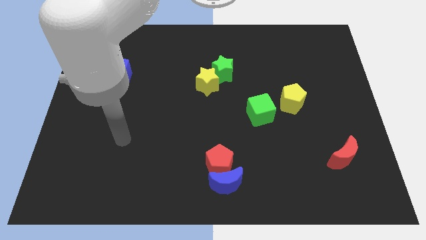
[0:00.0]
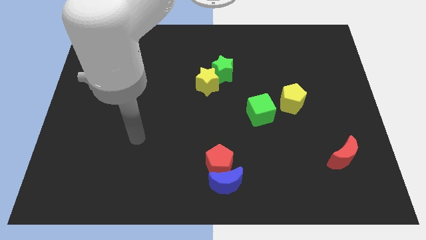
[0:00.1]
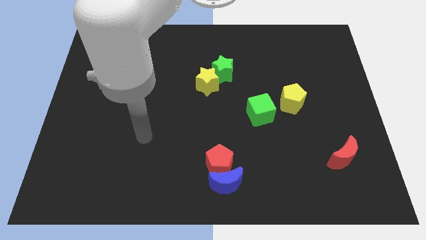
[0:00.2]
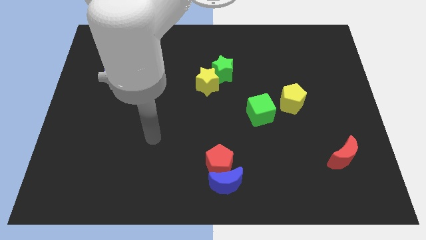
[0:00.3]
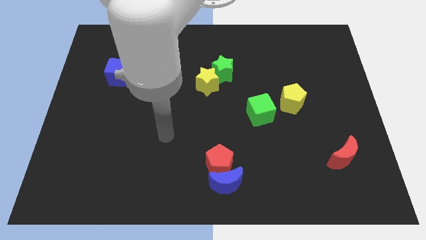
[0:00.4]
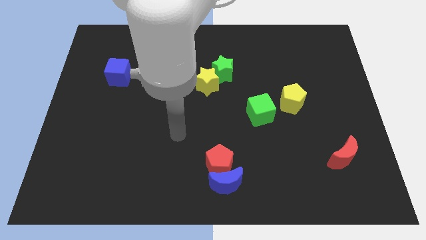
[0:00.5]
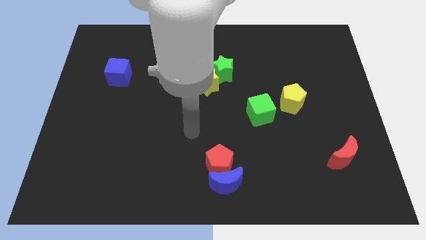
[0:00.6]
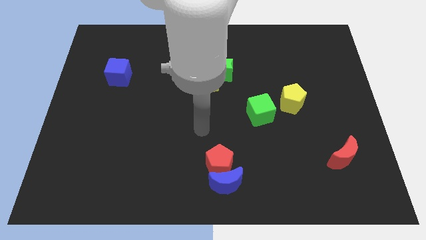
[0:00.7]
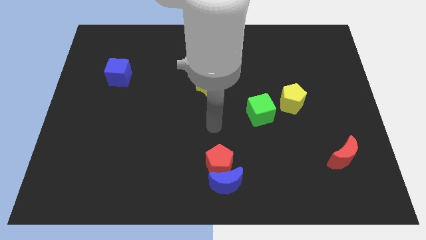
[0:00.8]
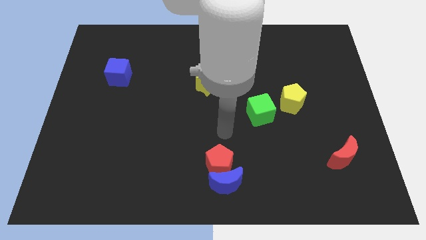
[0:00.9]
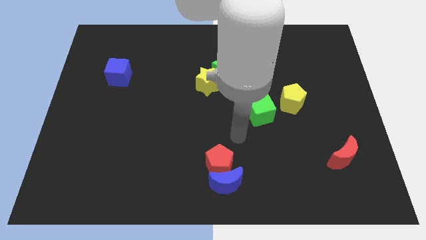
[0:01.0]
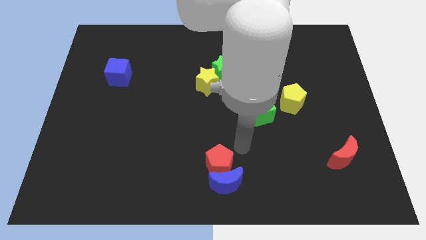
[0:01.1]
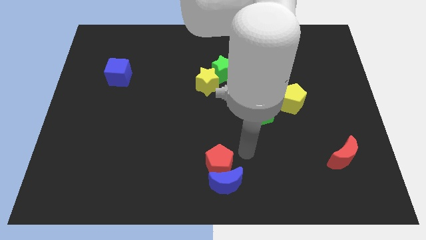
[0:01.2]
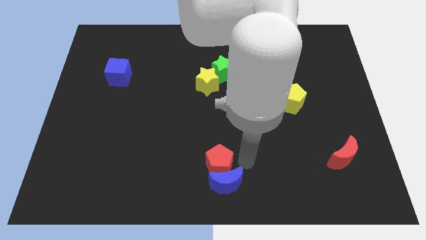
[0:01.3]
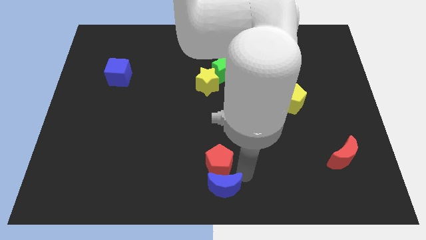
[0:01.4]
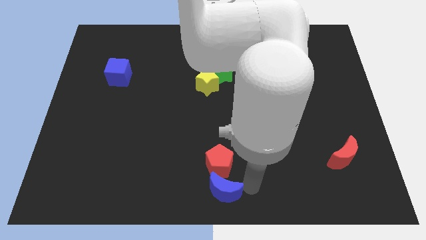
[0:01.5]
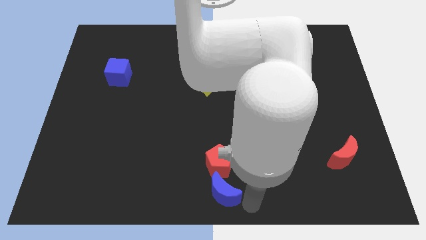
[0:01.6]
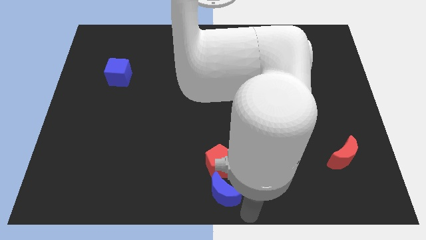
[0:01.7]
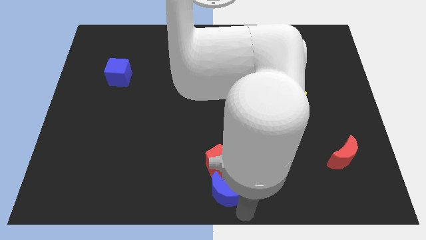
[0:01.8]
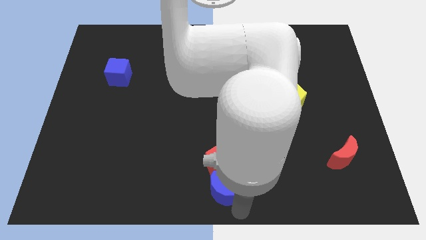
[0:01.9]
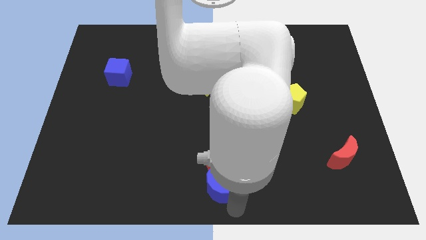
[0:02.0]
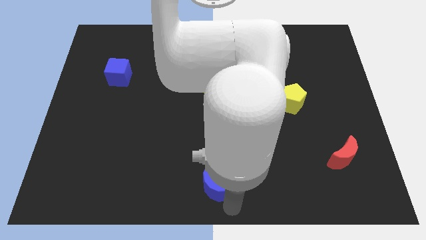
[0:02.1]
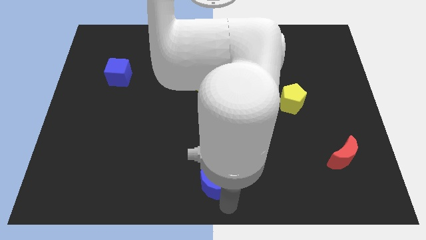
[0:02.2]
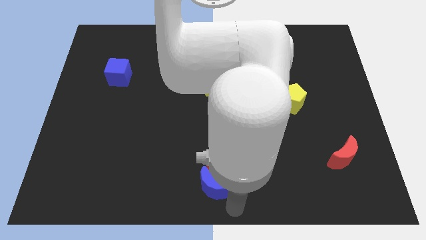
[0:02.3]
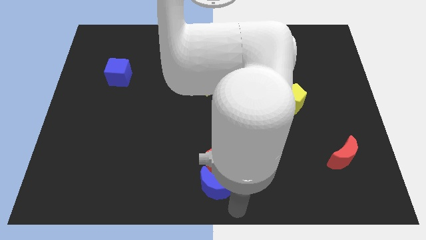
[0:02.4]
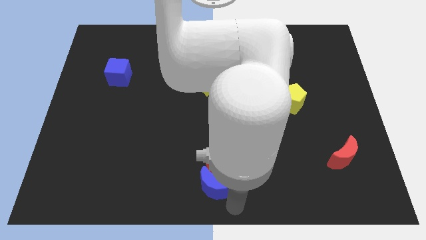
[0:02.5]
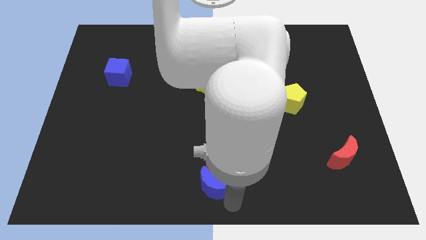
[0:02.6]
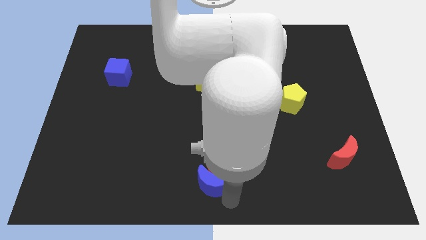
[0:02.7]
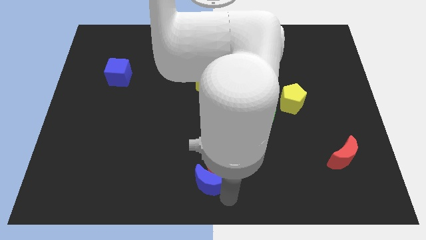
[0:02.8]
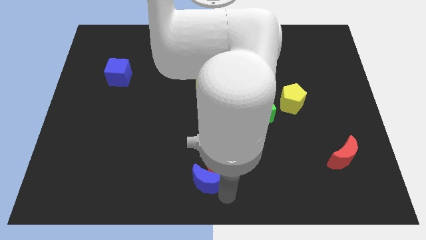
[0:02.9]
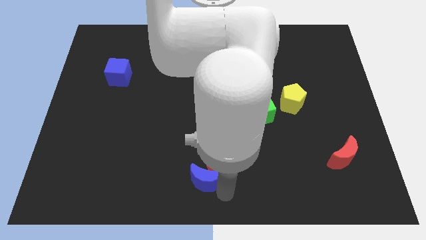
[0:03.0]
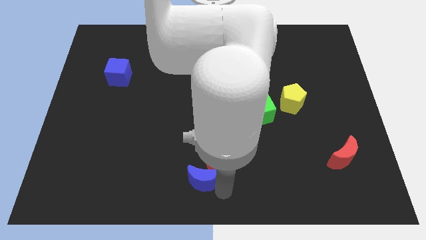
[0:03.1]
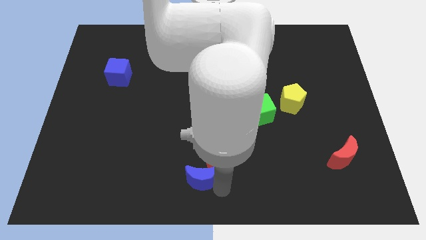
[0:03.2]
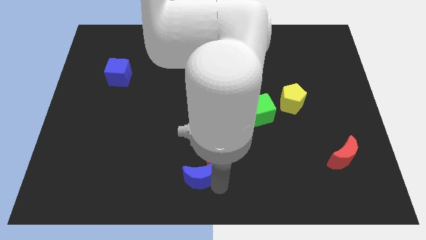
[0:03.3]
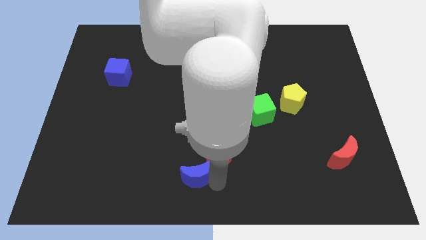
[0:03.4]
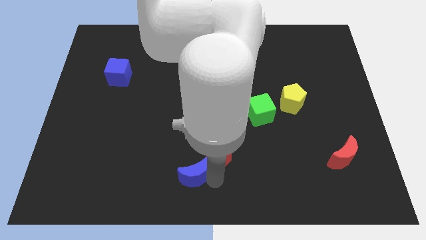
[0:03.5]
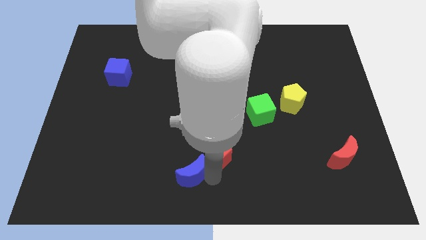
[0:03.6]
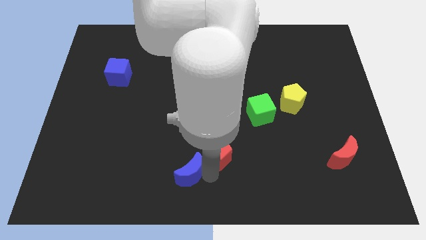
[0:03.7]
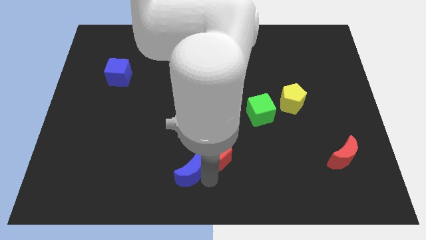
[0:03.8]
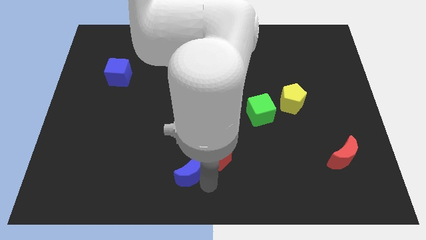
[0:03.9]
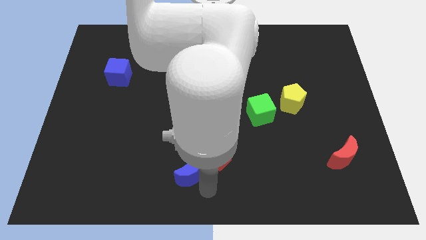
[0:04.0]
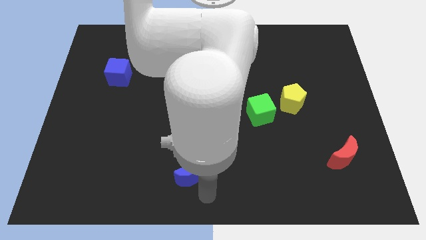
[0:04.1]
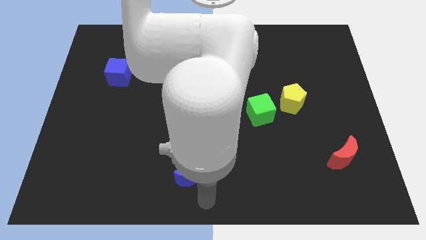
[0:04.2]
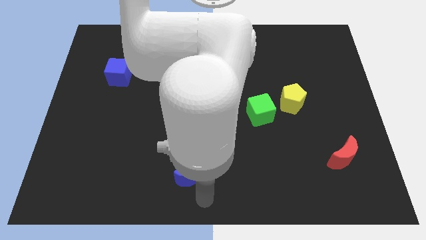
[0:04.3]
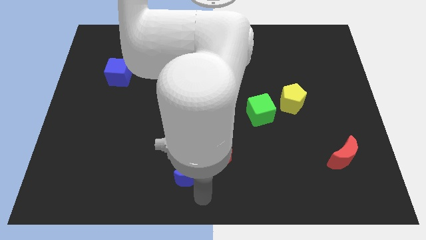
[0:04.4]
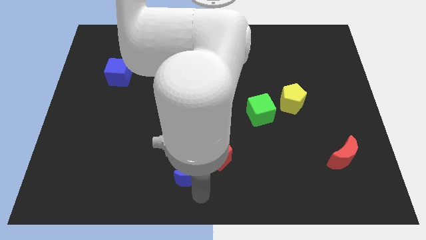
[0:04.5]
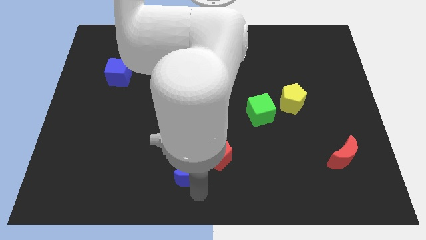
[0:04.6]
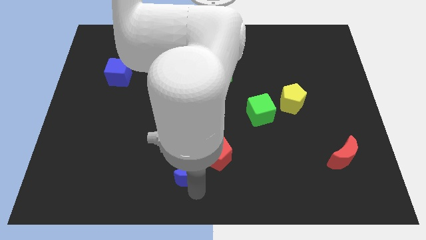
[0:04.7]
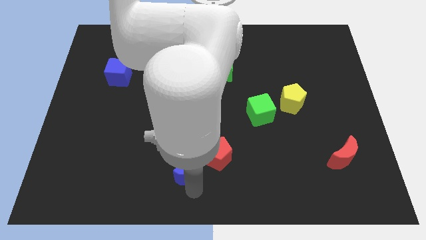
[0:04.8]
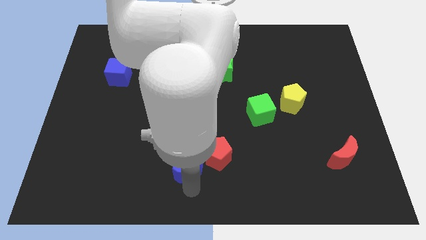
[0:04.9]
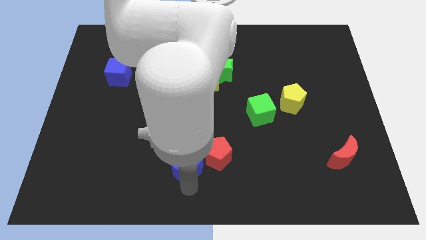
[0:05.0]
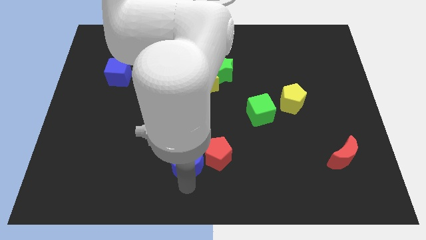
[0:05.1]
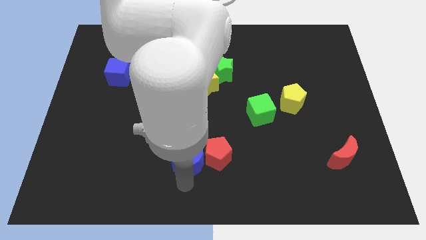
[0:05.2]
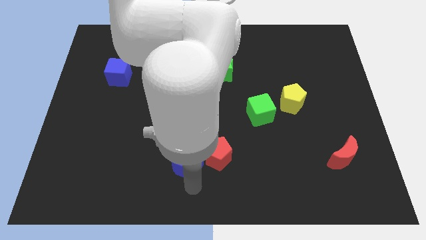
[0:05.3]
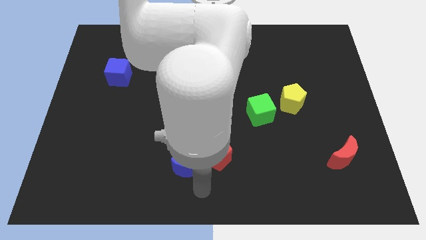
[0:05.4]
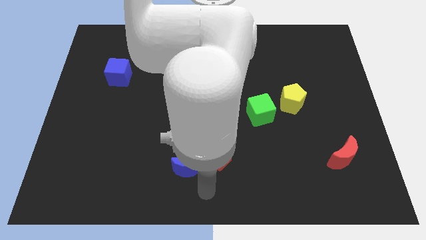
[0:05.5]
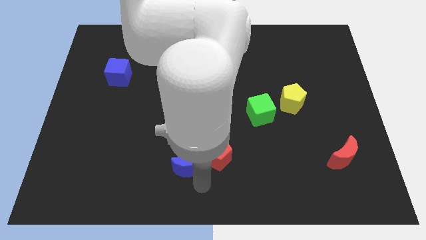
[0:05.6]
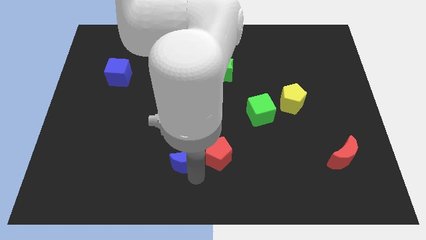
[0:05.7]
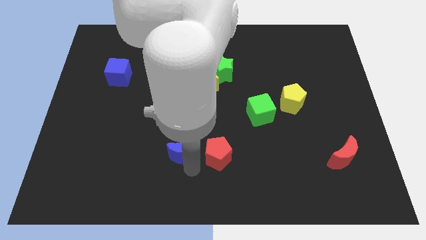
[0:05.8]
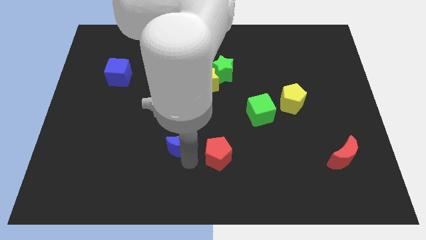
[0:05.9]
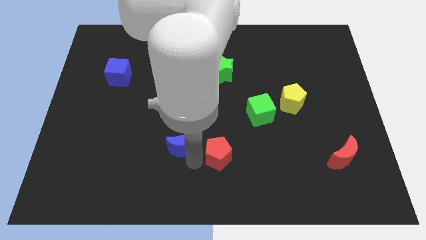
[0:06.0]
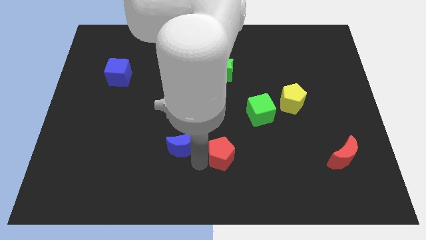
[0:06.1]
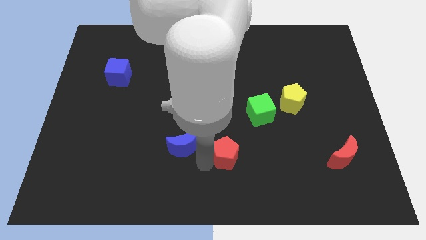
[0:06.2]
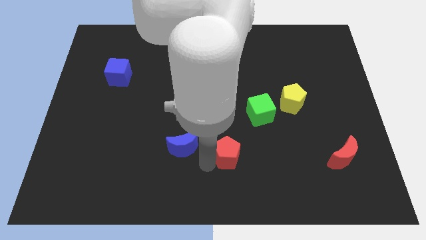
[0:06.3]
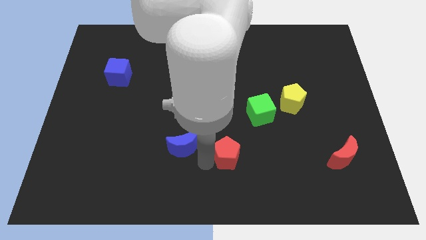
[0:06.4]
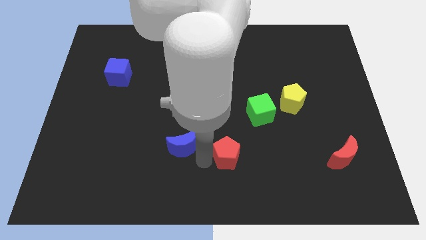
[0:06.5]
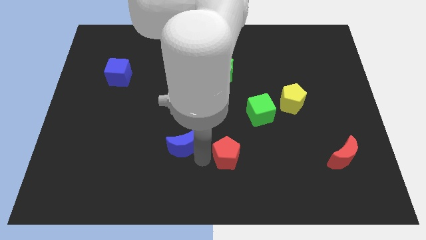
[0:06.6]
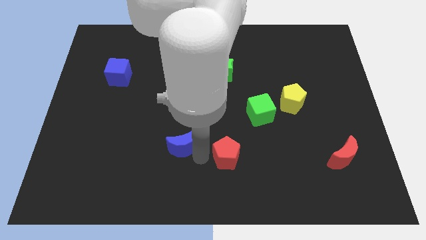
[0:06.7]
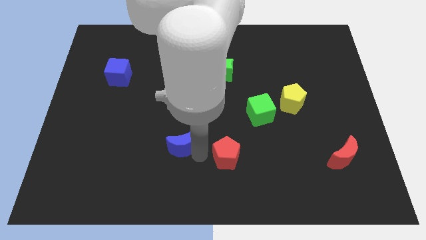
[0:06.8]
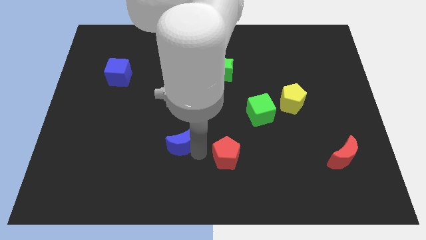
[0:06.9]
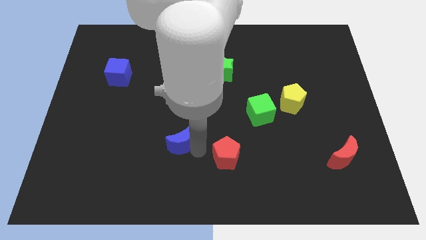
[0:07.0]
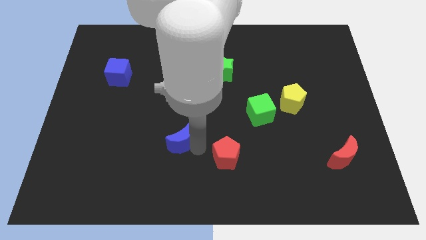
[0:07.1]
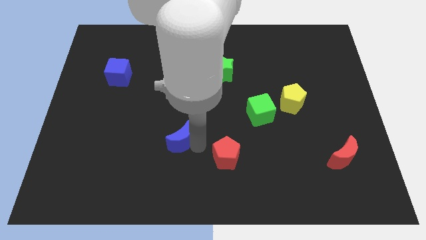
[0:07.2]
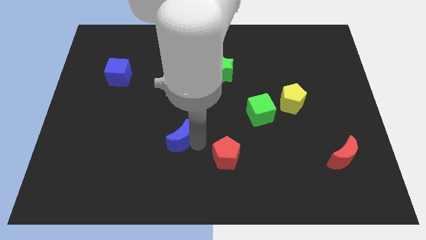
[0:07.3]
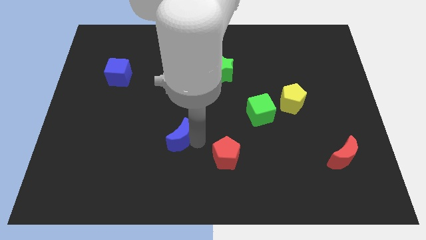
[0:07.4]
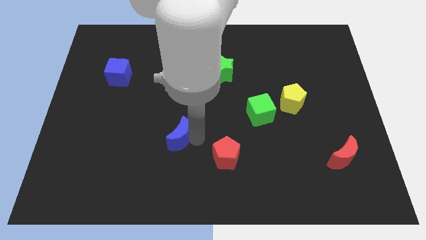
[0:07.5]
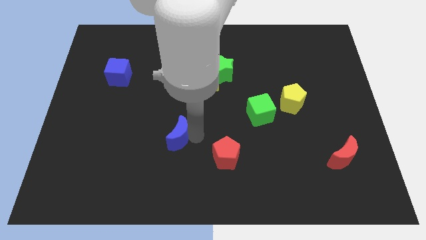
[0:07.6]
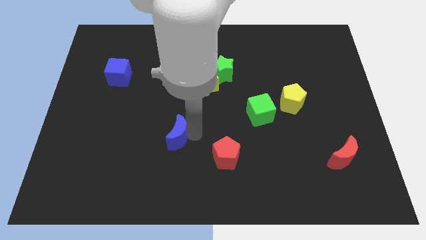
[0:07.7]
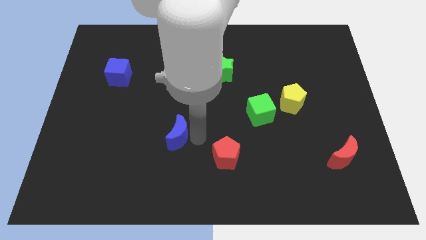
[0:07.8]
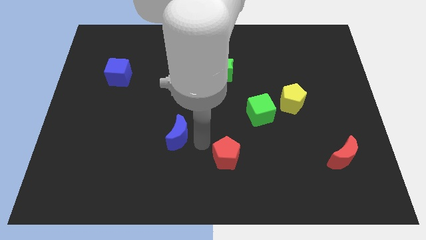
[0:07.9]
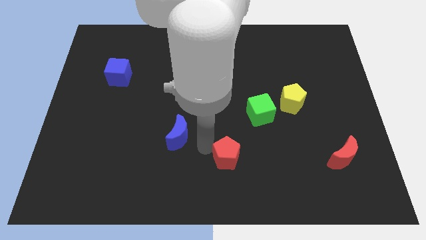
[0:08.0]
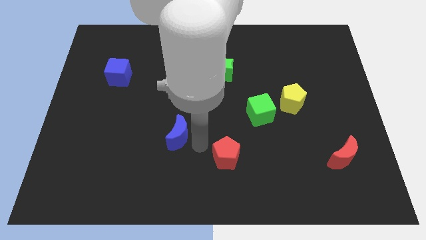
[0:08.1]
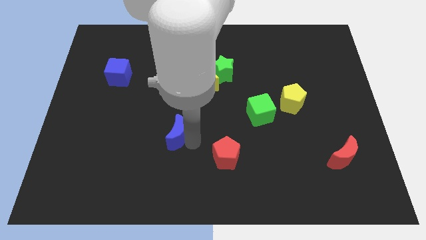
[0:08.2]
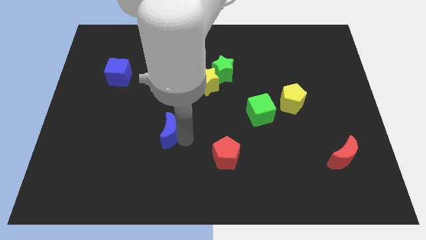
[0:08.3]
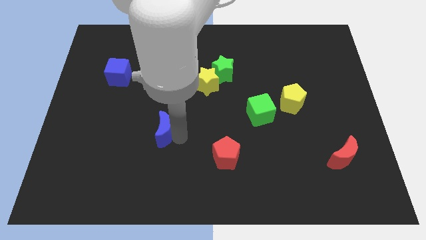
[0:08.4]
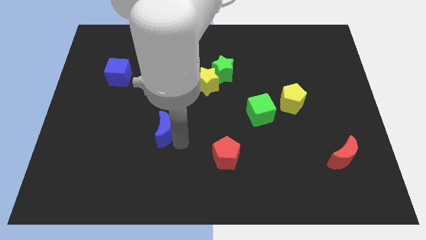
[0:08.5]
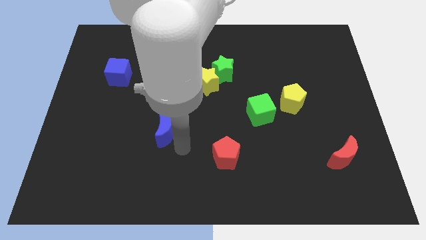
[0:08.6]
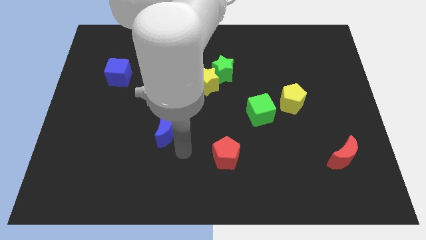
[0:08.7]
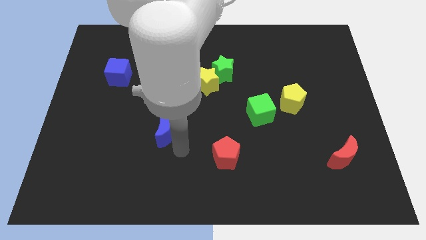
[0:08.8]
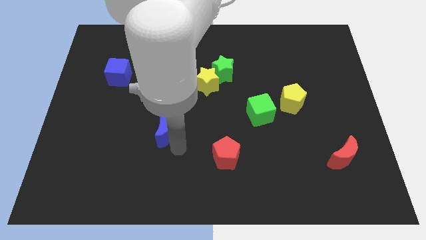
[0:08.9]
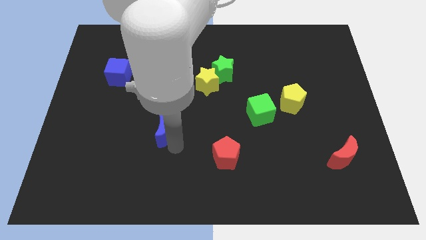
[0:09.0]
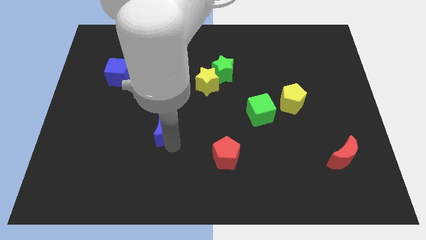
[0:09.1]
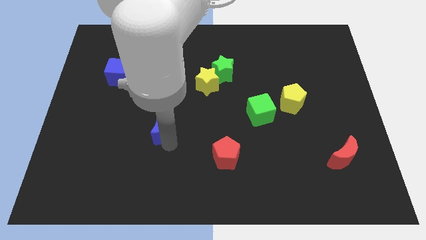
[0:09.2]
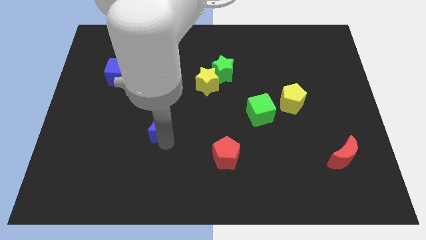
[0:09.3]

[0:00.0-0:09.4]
push the blue moon up and to the left
